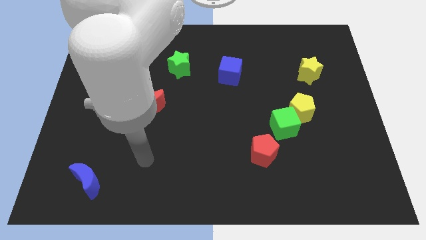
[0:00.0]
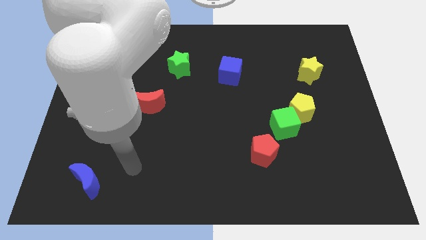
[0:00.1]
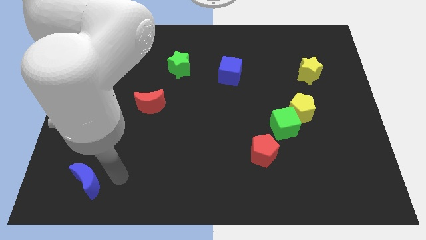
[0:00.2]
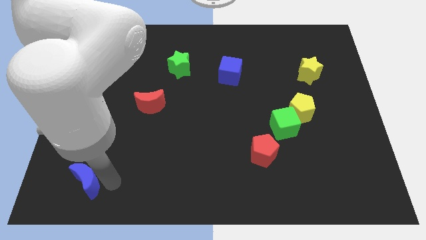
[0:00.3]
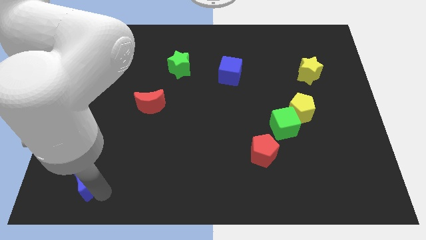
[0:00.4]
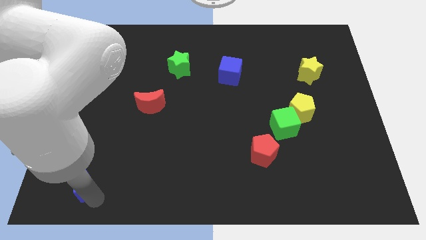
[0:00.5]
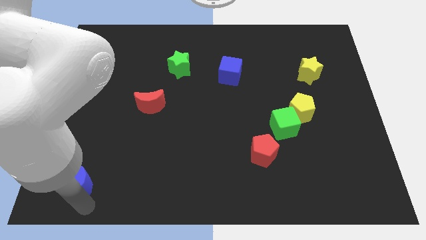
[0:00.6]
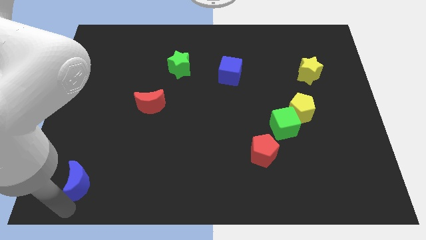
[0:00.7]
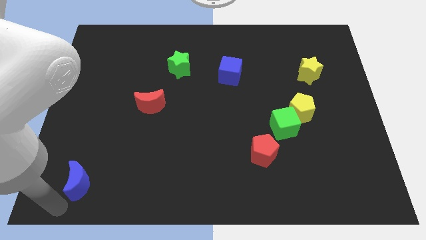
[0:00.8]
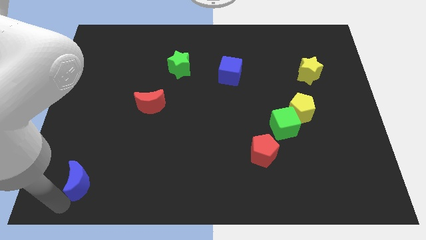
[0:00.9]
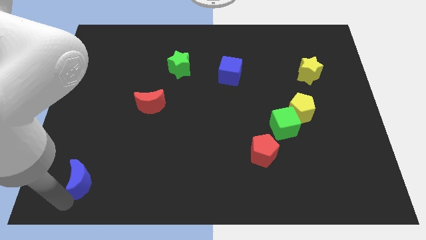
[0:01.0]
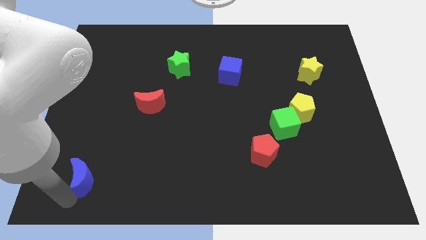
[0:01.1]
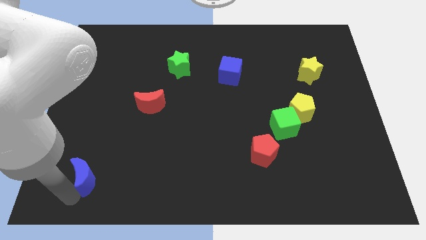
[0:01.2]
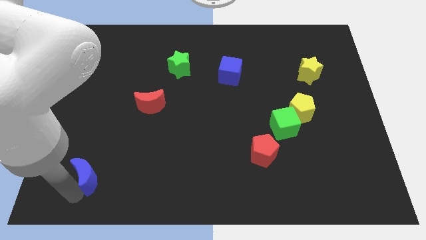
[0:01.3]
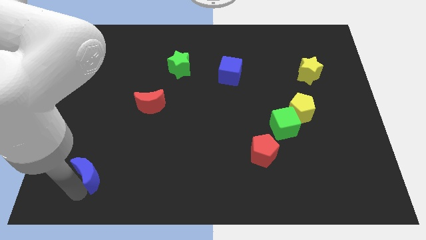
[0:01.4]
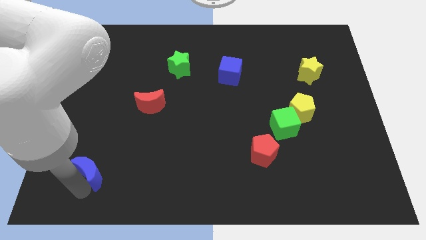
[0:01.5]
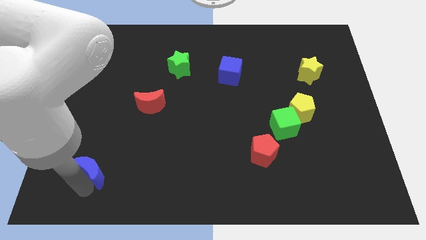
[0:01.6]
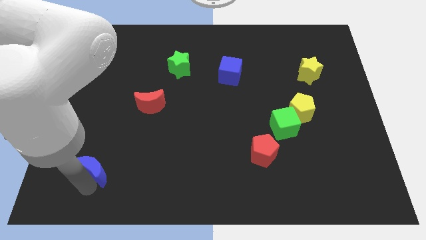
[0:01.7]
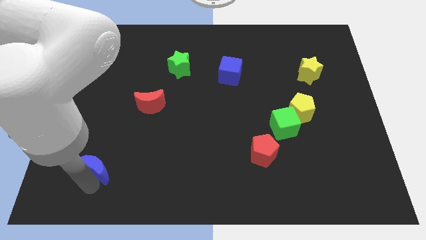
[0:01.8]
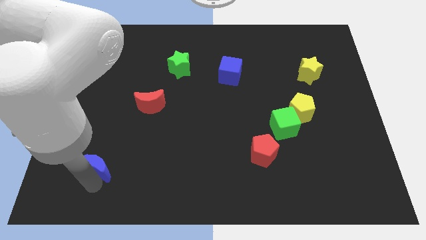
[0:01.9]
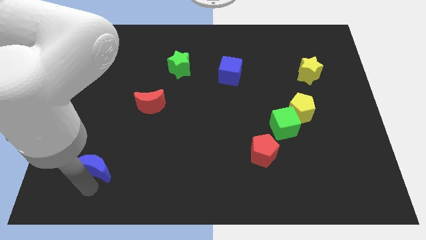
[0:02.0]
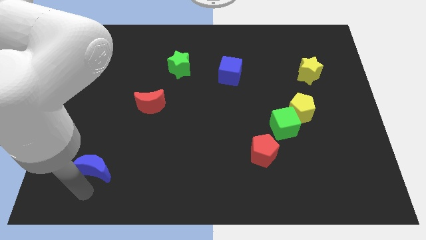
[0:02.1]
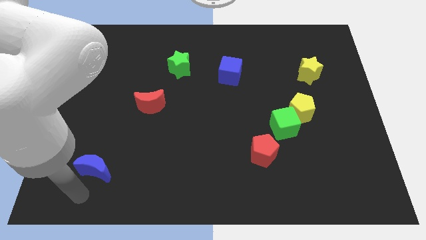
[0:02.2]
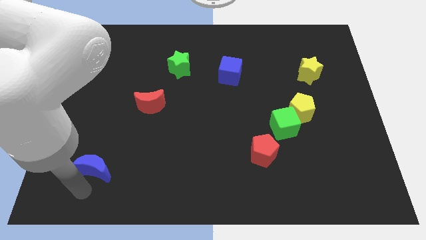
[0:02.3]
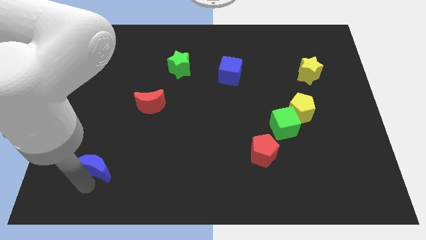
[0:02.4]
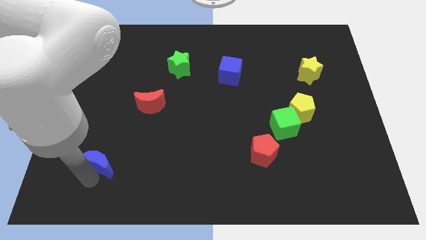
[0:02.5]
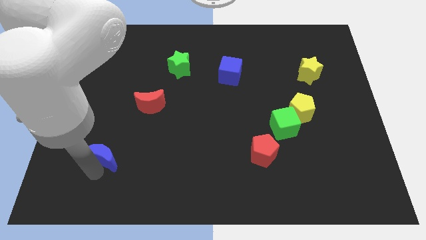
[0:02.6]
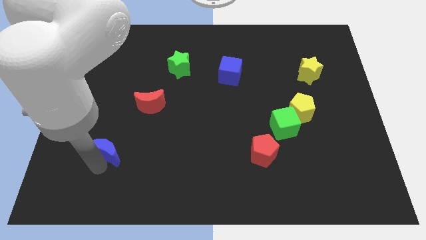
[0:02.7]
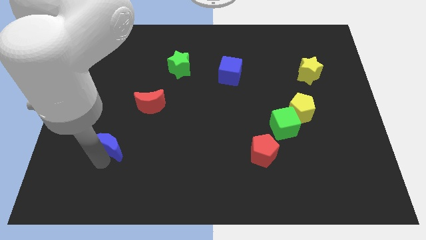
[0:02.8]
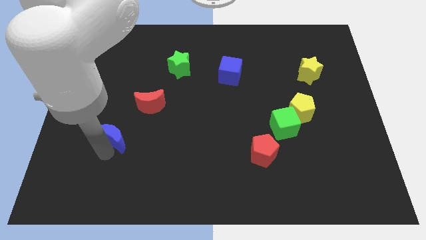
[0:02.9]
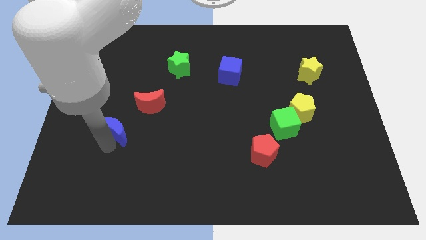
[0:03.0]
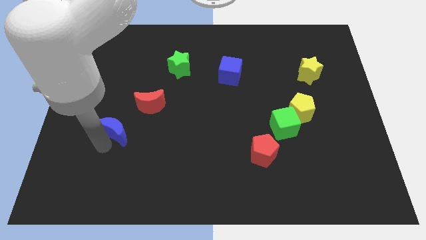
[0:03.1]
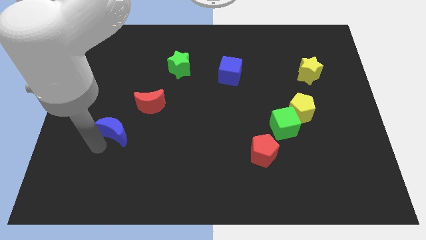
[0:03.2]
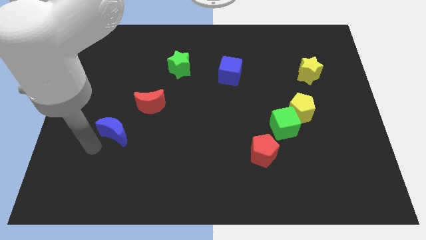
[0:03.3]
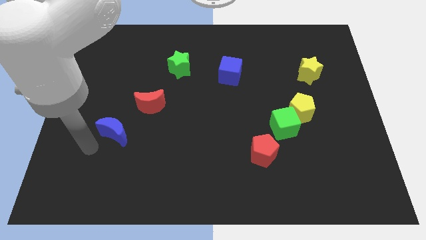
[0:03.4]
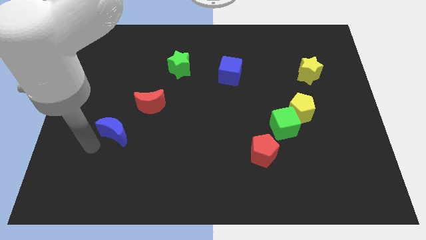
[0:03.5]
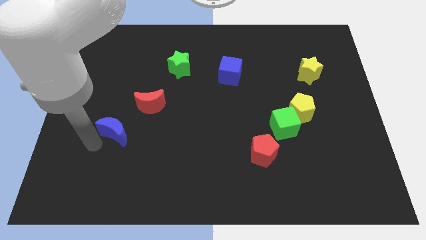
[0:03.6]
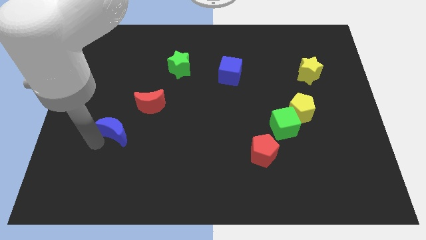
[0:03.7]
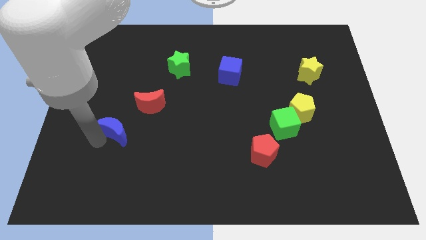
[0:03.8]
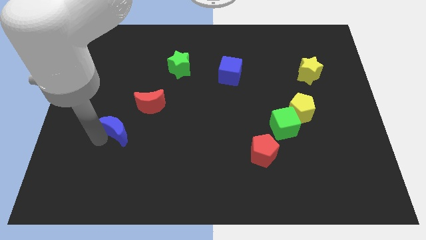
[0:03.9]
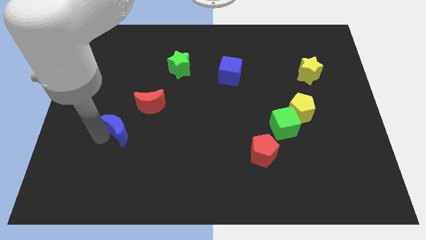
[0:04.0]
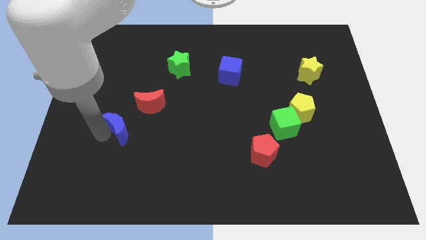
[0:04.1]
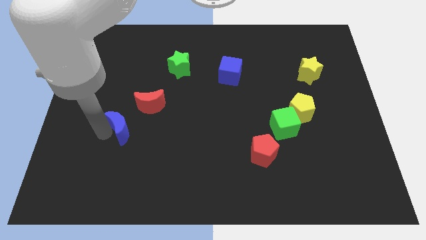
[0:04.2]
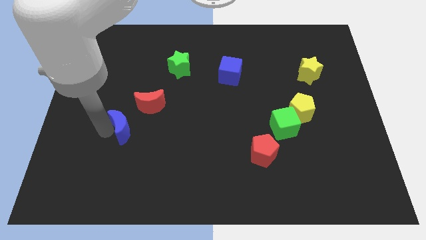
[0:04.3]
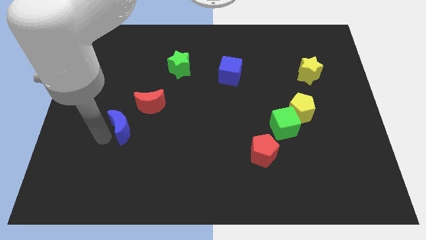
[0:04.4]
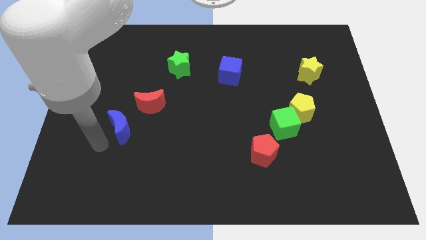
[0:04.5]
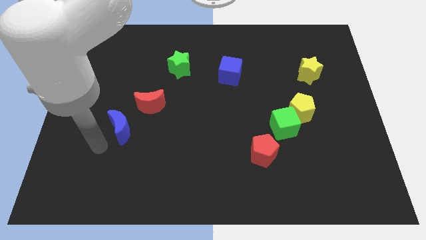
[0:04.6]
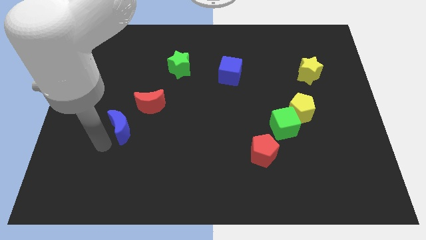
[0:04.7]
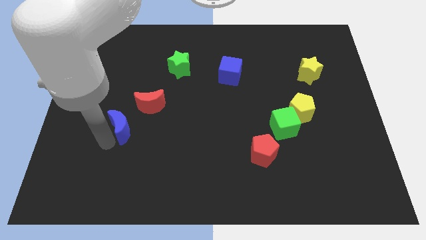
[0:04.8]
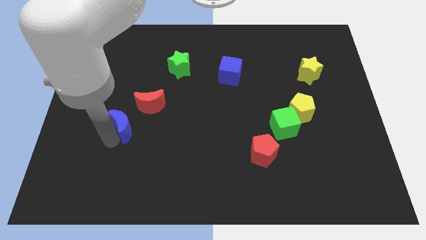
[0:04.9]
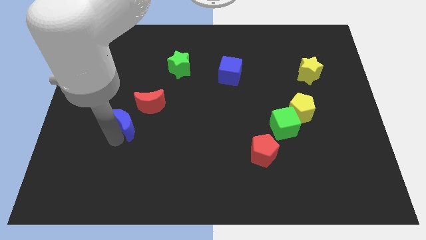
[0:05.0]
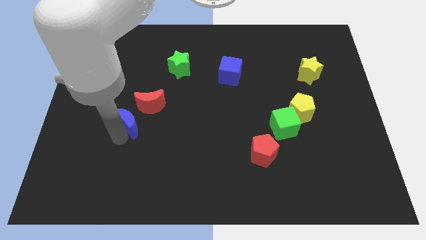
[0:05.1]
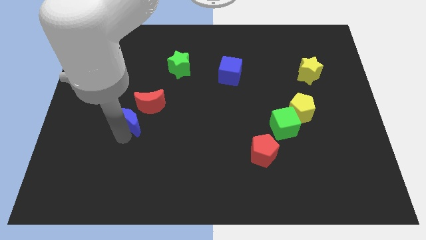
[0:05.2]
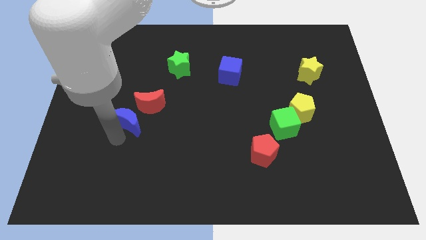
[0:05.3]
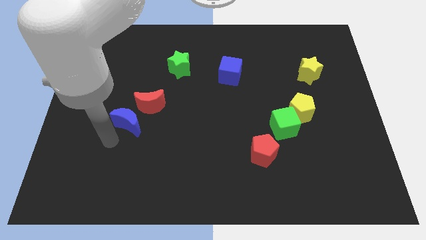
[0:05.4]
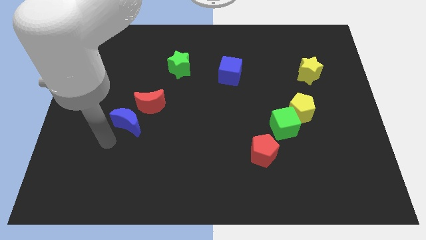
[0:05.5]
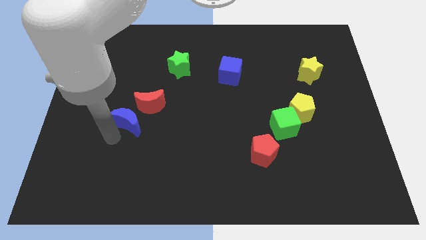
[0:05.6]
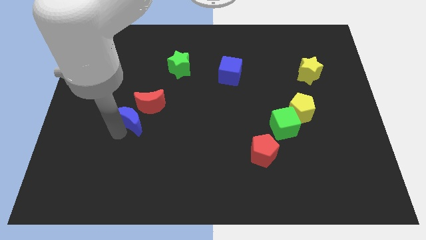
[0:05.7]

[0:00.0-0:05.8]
put the blue moon close to the red moon

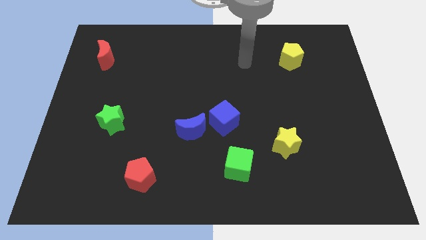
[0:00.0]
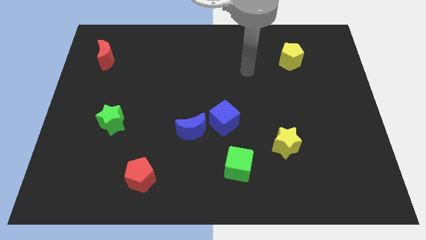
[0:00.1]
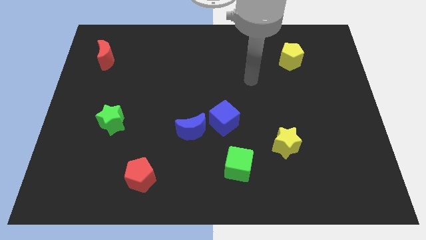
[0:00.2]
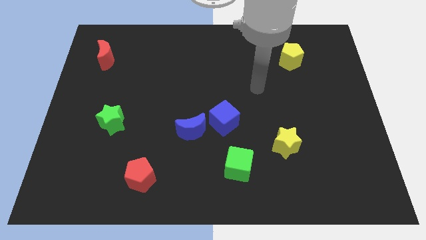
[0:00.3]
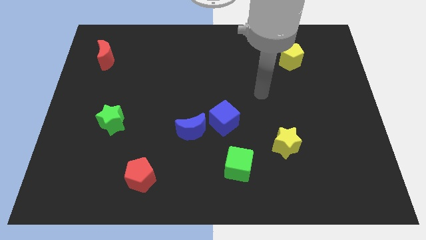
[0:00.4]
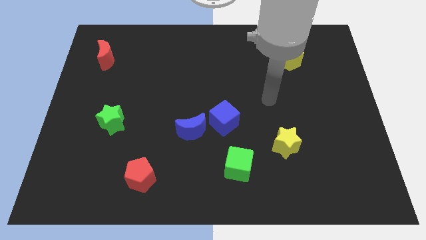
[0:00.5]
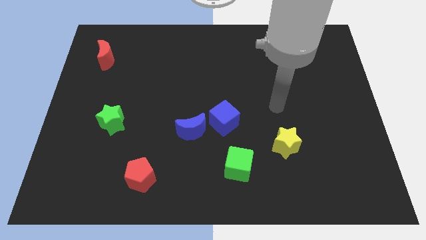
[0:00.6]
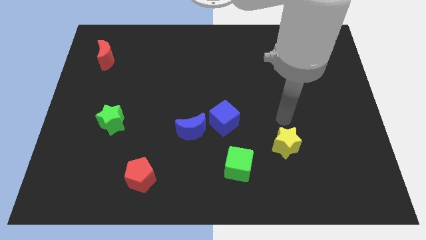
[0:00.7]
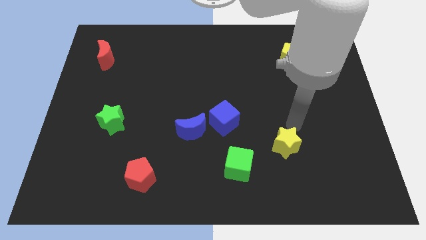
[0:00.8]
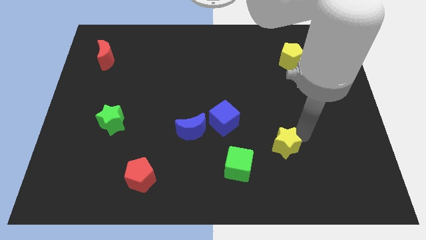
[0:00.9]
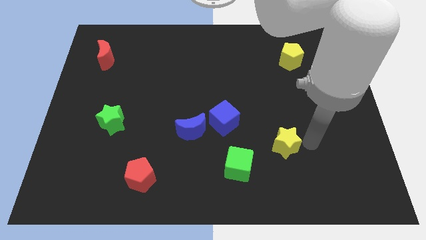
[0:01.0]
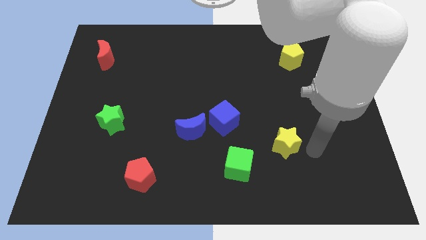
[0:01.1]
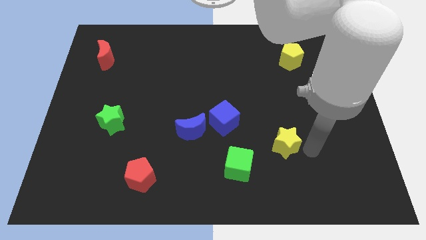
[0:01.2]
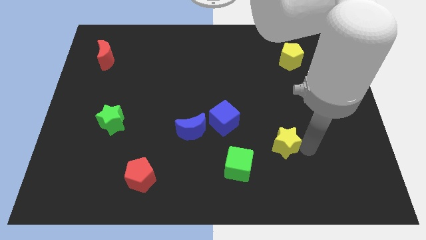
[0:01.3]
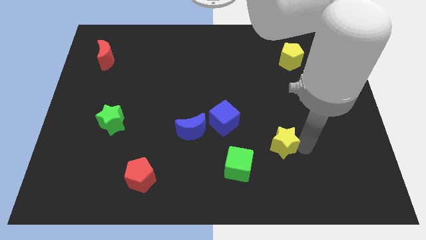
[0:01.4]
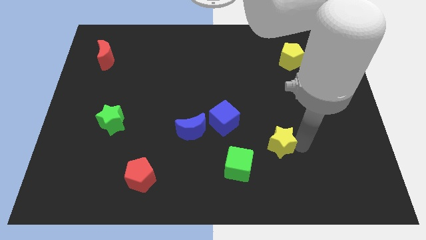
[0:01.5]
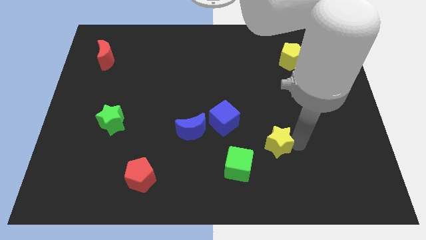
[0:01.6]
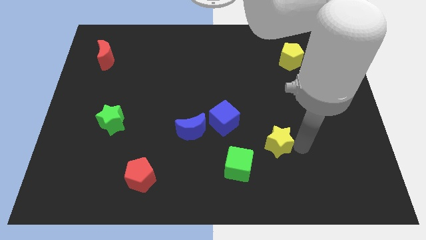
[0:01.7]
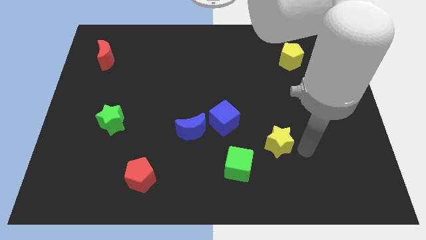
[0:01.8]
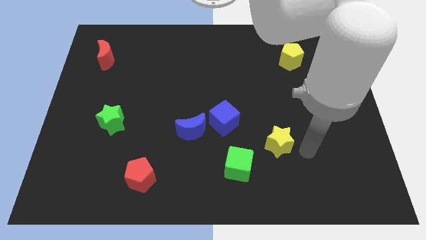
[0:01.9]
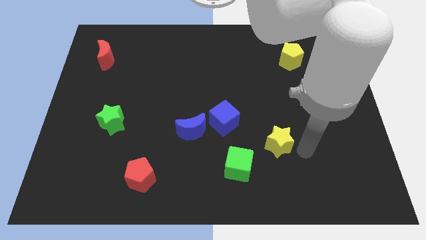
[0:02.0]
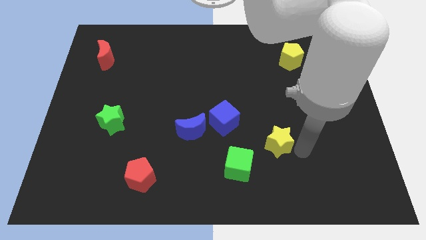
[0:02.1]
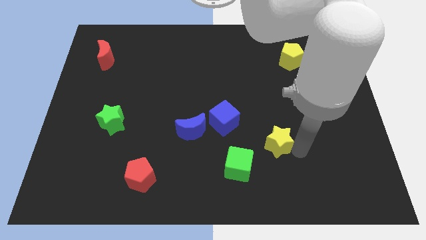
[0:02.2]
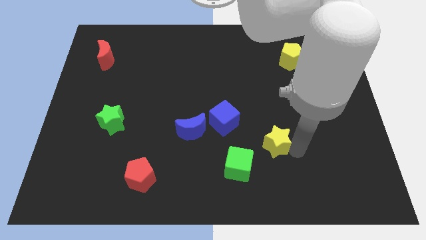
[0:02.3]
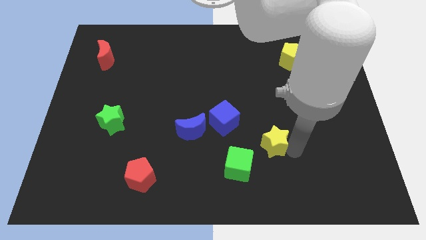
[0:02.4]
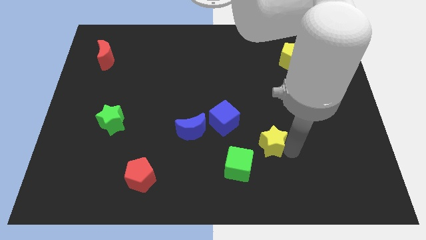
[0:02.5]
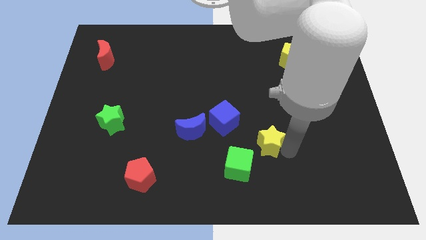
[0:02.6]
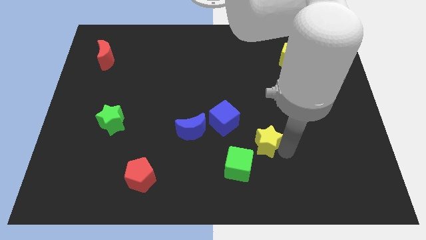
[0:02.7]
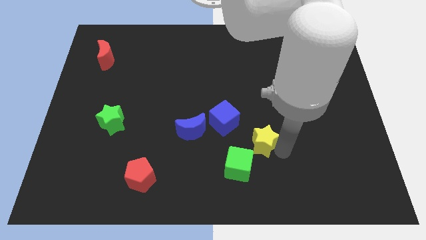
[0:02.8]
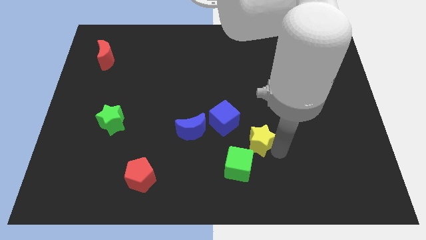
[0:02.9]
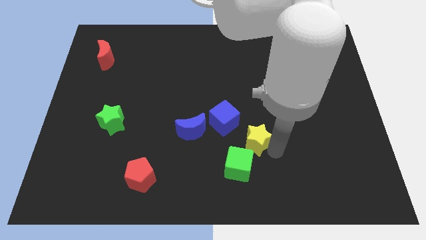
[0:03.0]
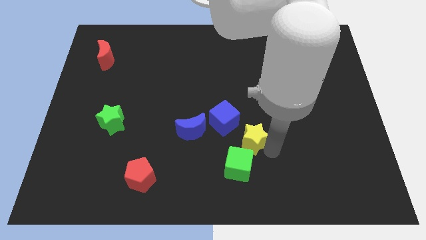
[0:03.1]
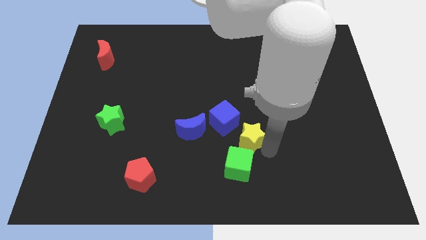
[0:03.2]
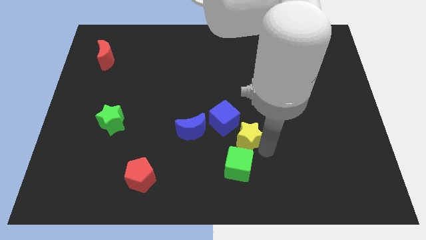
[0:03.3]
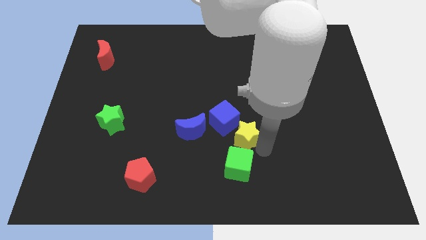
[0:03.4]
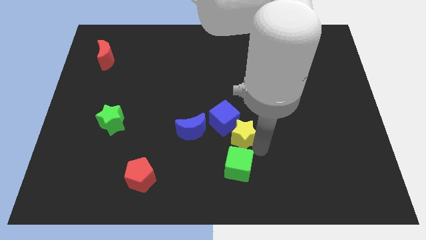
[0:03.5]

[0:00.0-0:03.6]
move the yellow star to the blue cube
